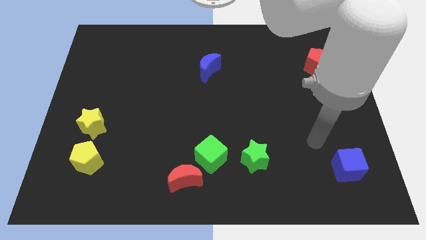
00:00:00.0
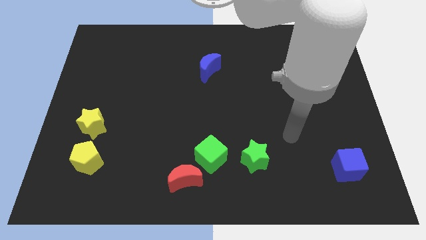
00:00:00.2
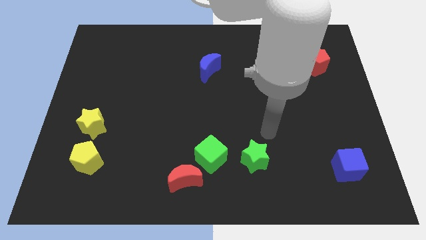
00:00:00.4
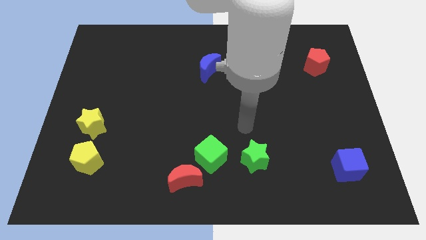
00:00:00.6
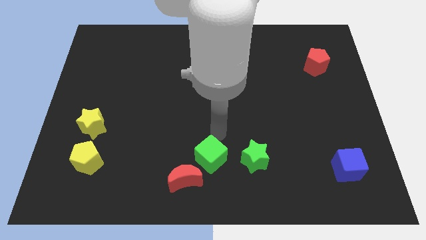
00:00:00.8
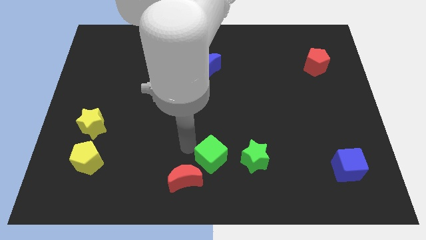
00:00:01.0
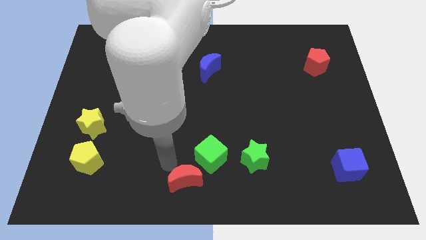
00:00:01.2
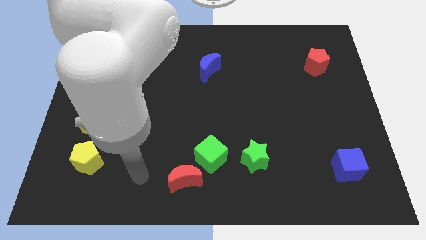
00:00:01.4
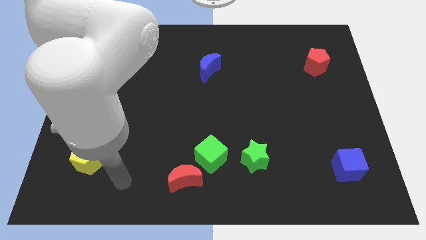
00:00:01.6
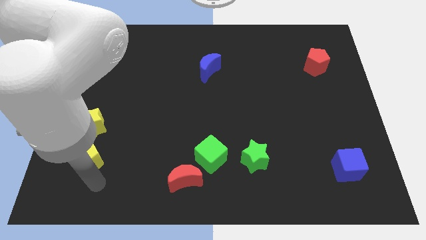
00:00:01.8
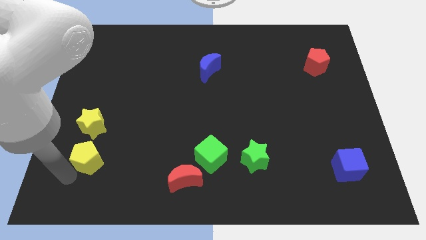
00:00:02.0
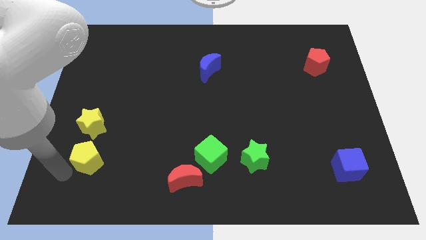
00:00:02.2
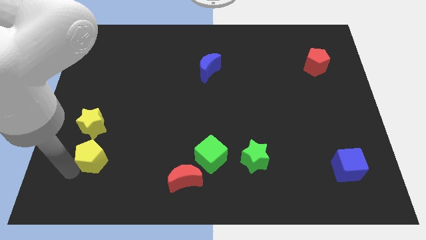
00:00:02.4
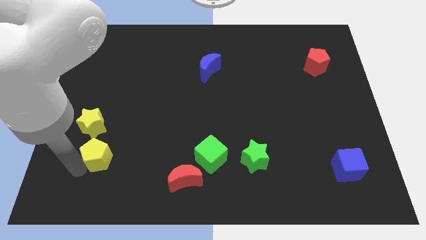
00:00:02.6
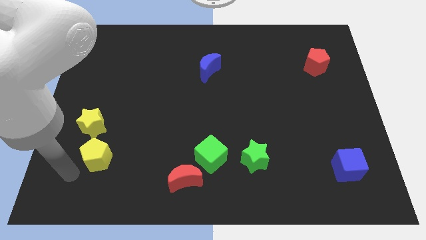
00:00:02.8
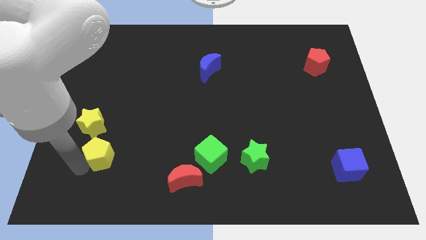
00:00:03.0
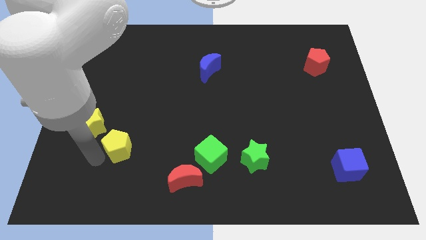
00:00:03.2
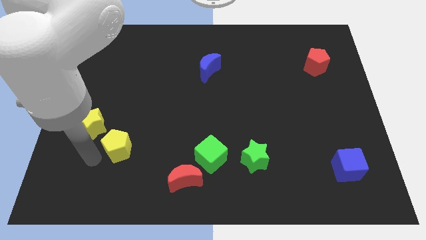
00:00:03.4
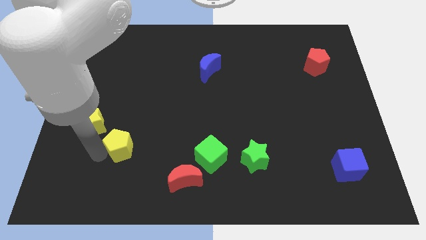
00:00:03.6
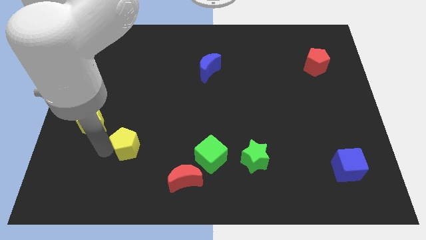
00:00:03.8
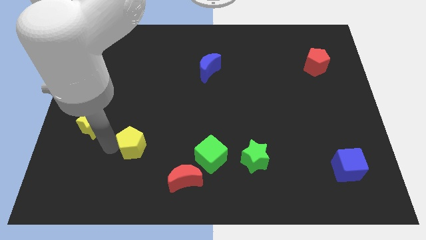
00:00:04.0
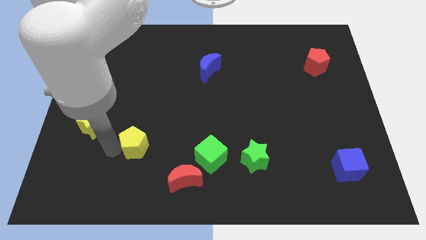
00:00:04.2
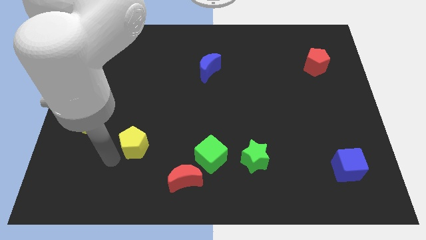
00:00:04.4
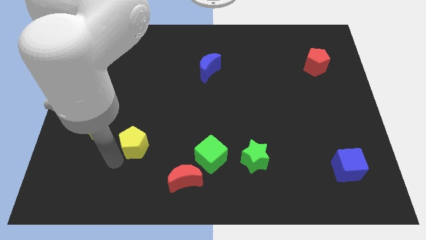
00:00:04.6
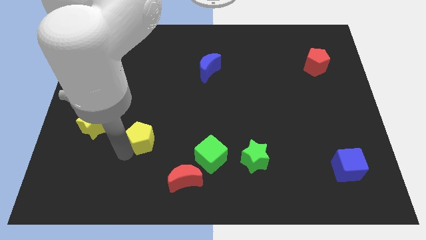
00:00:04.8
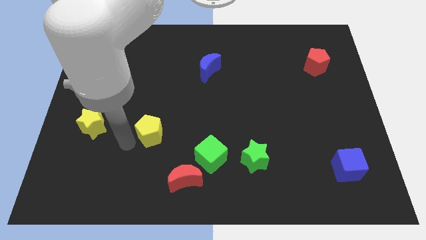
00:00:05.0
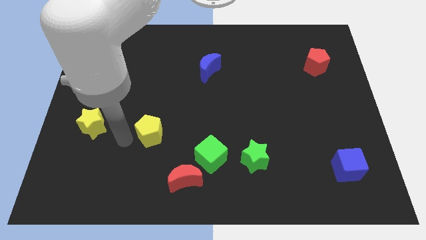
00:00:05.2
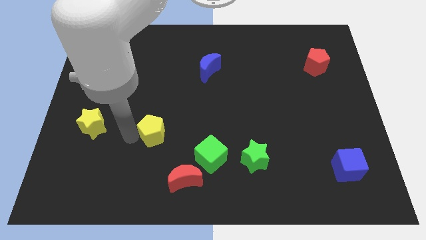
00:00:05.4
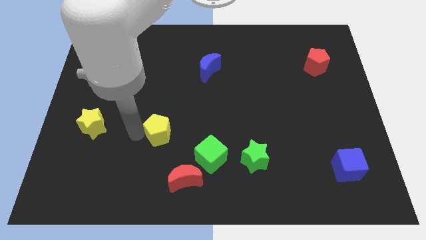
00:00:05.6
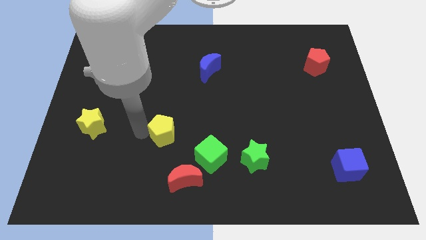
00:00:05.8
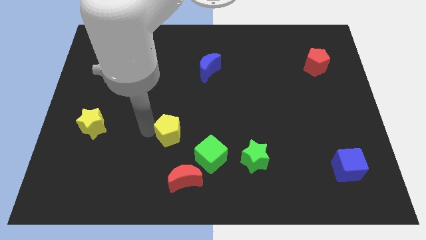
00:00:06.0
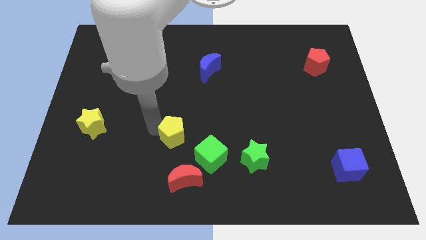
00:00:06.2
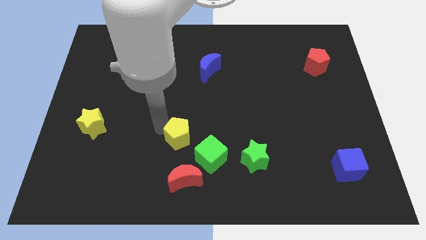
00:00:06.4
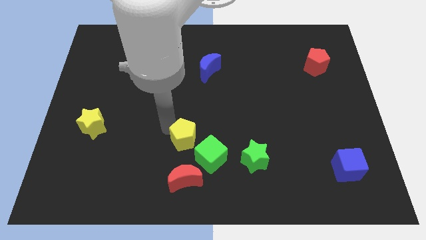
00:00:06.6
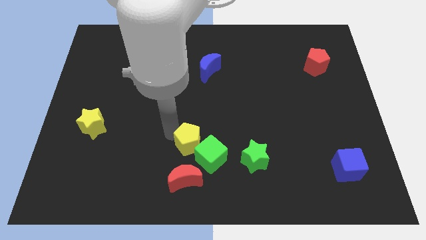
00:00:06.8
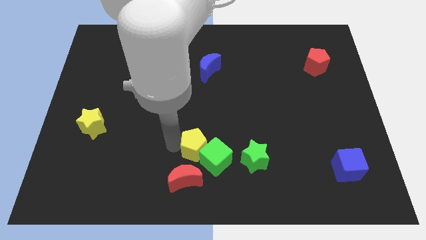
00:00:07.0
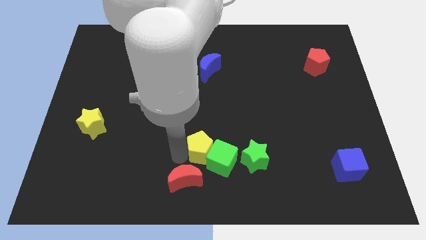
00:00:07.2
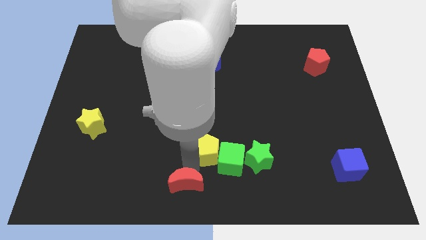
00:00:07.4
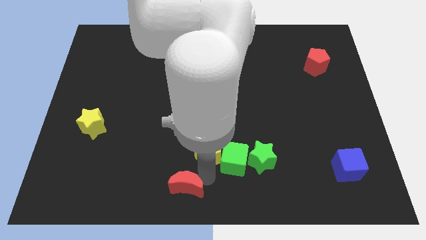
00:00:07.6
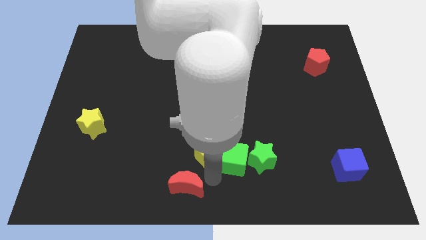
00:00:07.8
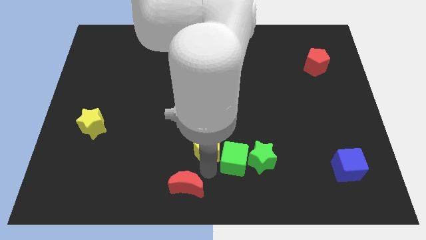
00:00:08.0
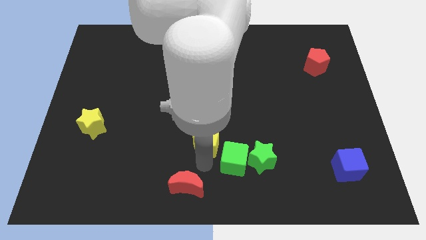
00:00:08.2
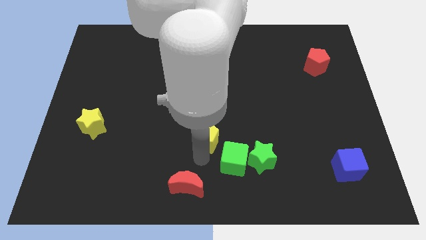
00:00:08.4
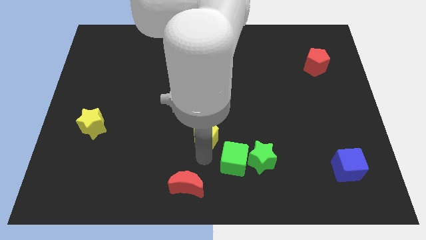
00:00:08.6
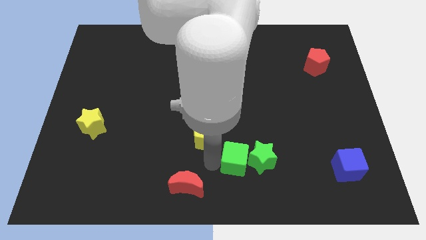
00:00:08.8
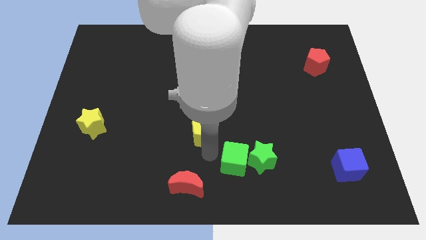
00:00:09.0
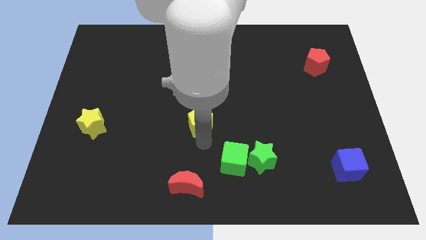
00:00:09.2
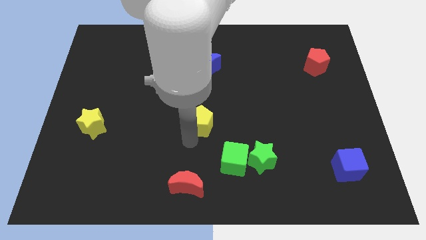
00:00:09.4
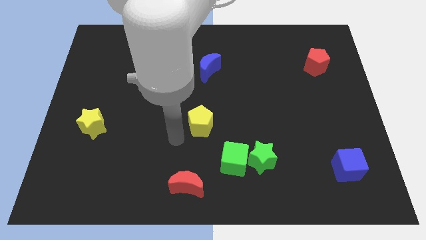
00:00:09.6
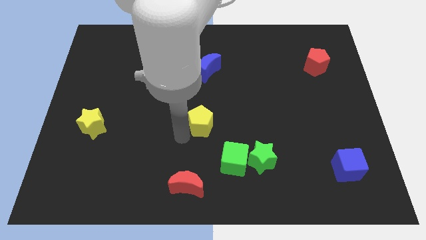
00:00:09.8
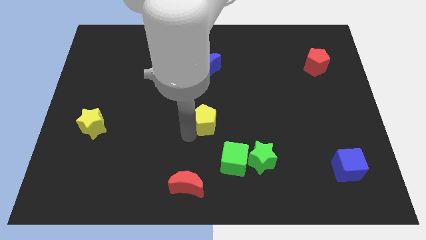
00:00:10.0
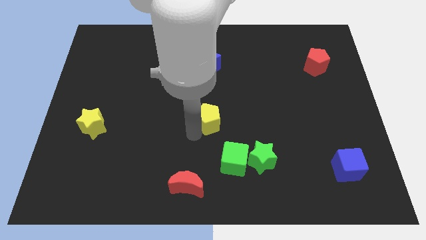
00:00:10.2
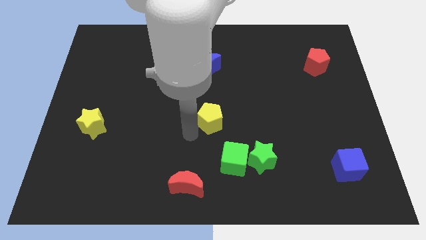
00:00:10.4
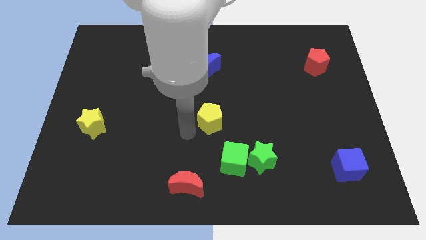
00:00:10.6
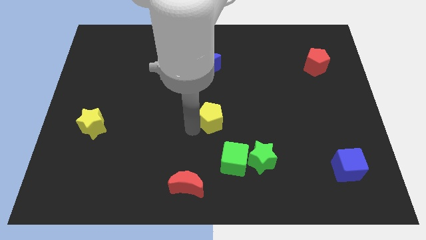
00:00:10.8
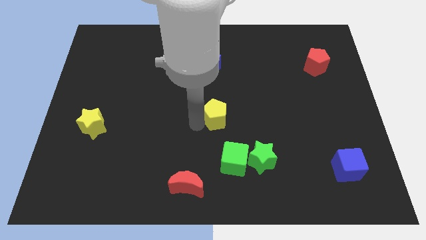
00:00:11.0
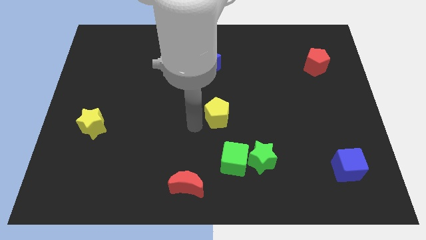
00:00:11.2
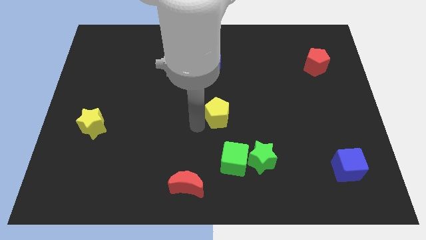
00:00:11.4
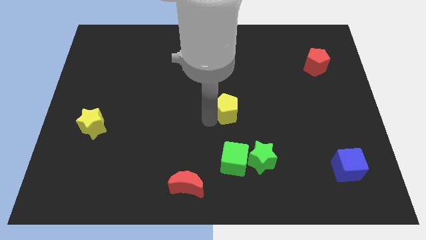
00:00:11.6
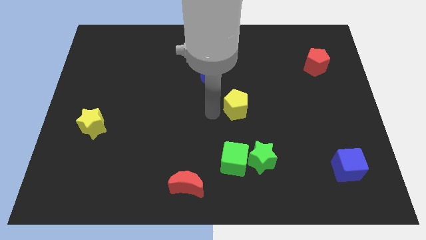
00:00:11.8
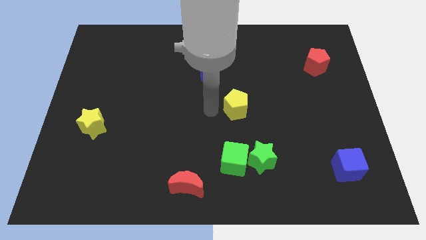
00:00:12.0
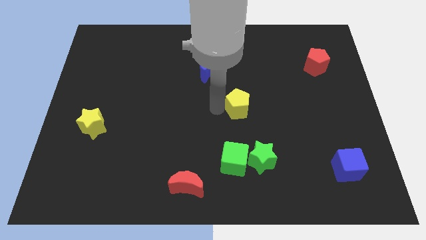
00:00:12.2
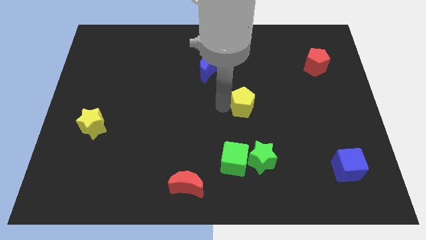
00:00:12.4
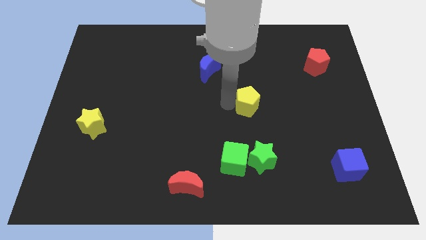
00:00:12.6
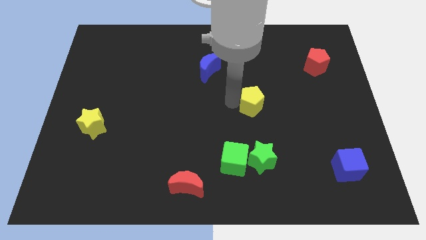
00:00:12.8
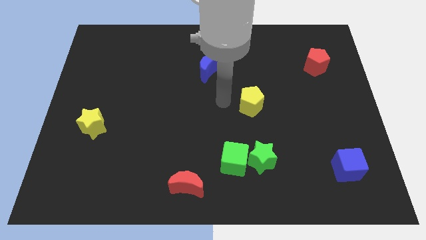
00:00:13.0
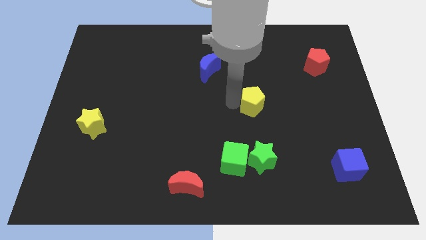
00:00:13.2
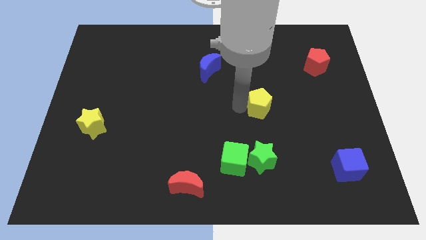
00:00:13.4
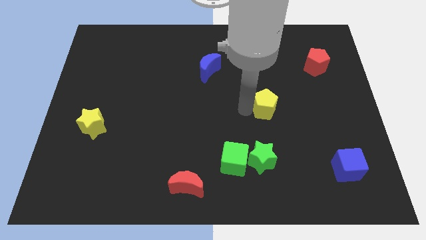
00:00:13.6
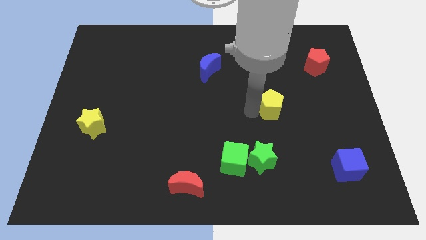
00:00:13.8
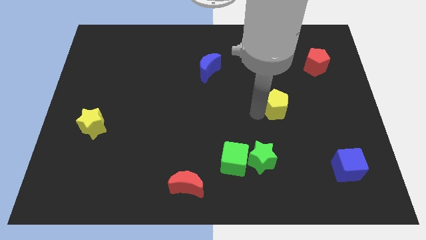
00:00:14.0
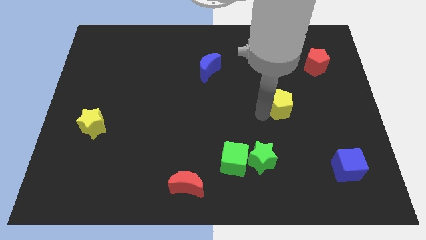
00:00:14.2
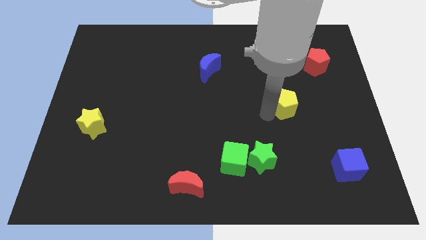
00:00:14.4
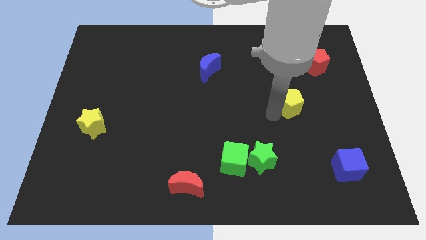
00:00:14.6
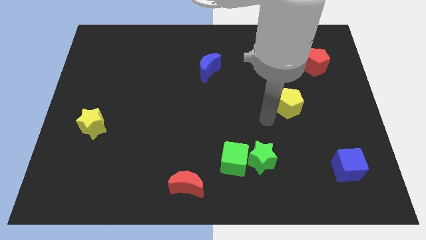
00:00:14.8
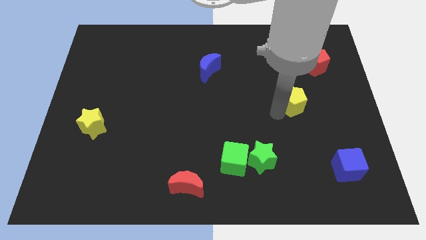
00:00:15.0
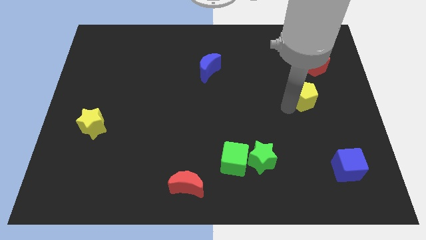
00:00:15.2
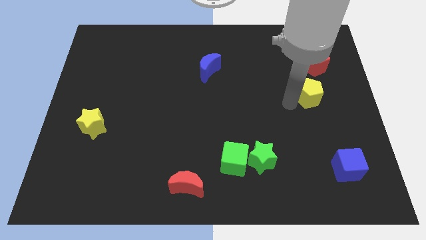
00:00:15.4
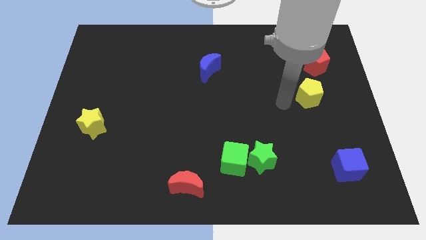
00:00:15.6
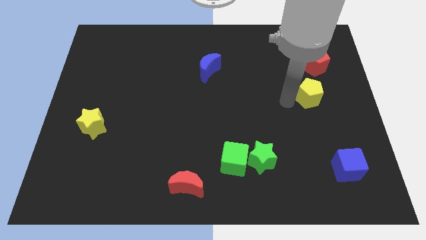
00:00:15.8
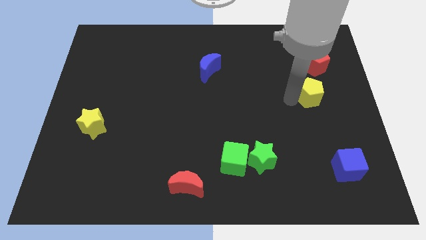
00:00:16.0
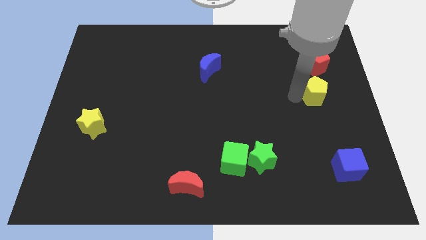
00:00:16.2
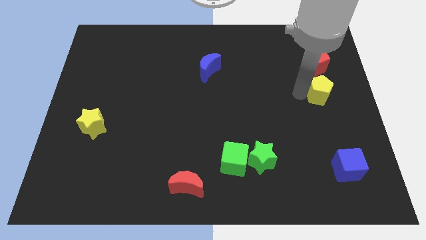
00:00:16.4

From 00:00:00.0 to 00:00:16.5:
put the yellow pentagon to the right side of the board
